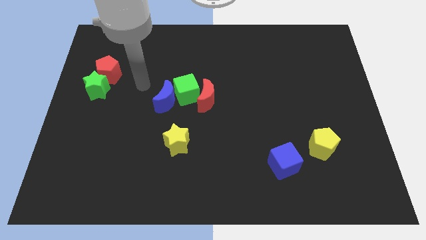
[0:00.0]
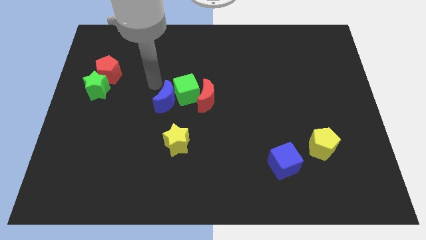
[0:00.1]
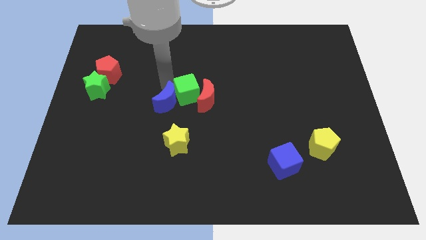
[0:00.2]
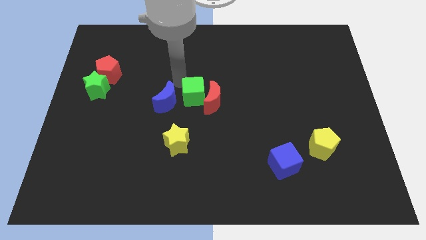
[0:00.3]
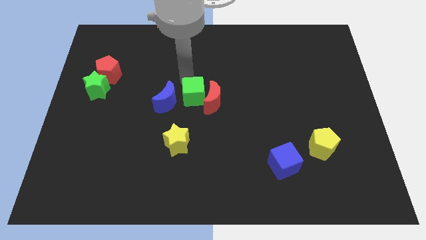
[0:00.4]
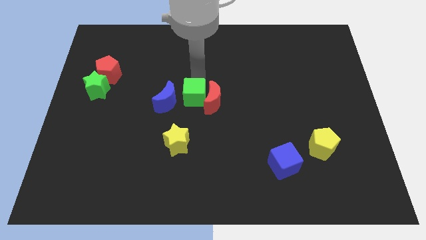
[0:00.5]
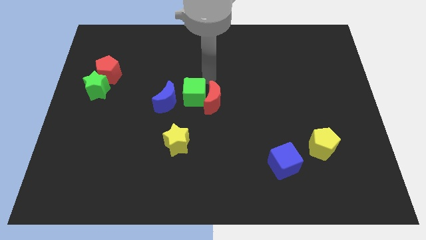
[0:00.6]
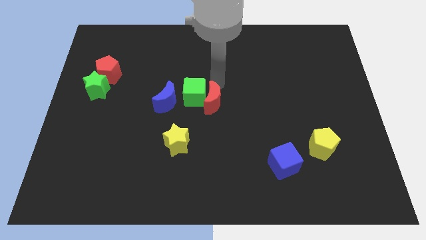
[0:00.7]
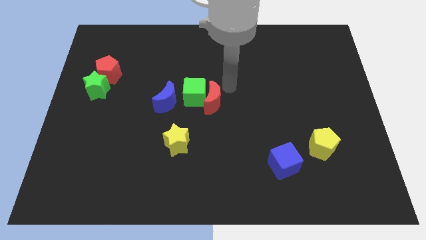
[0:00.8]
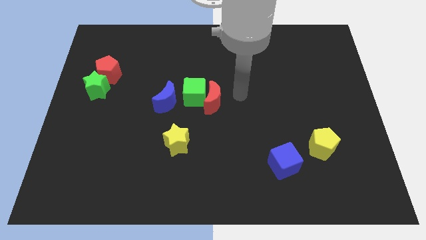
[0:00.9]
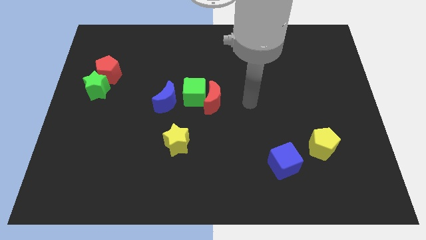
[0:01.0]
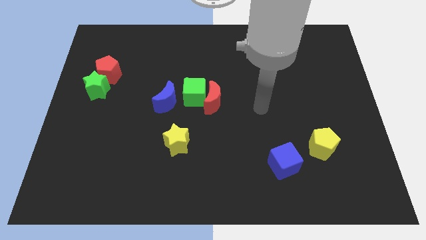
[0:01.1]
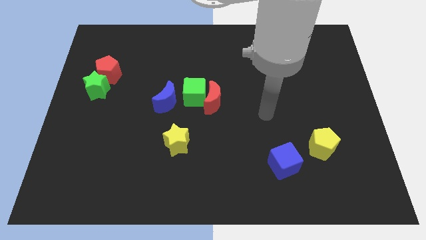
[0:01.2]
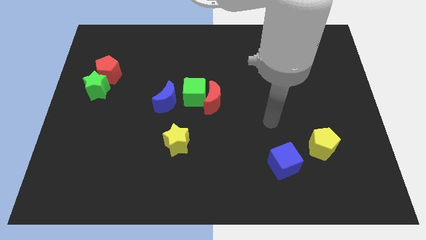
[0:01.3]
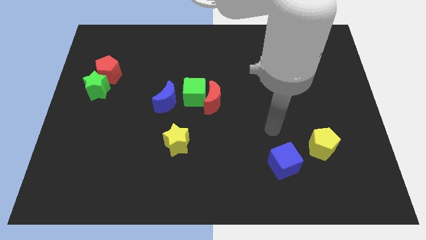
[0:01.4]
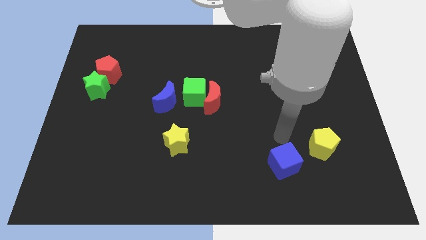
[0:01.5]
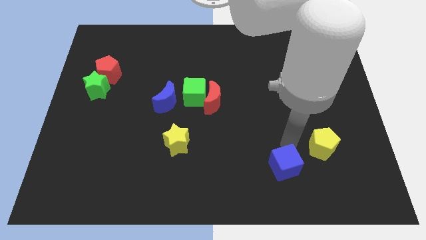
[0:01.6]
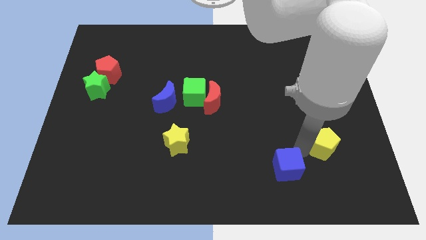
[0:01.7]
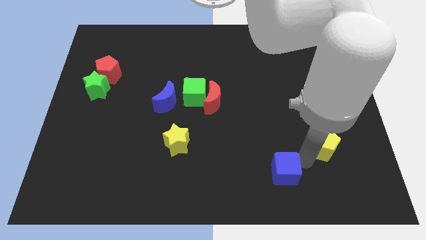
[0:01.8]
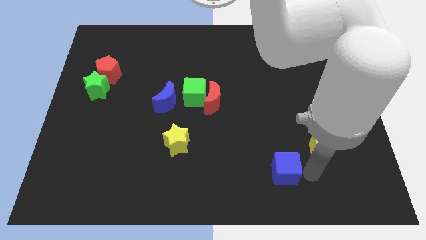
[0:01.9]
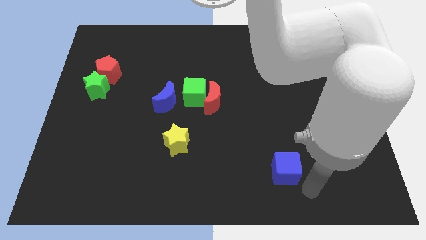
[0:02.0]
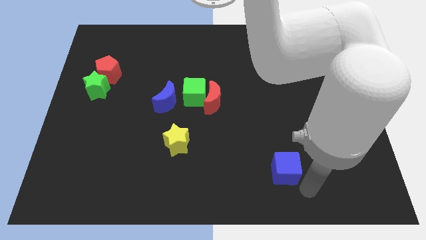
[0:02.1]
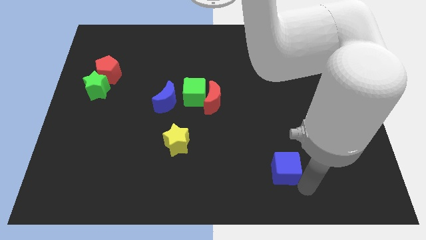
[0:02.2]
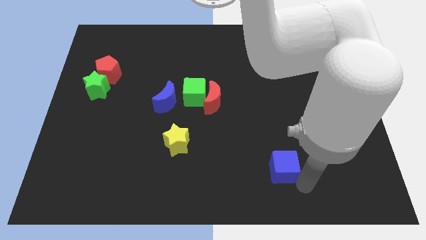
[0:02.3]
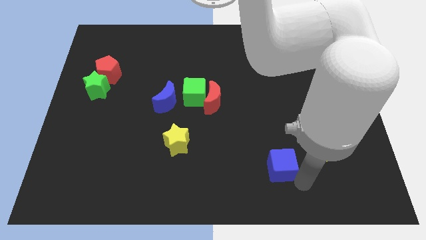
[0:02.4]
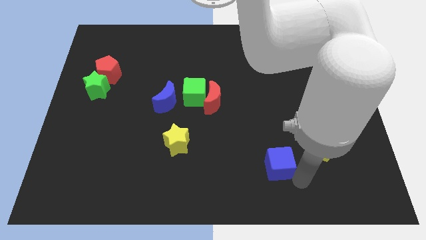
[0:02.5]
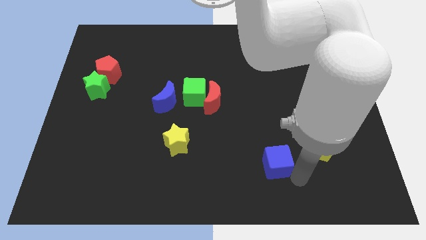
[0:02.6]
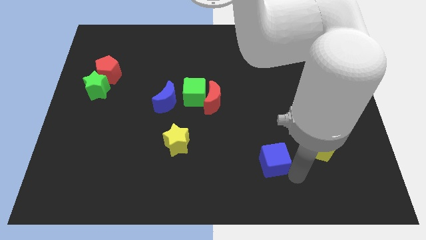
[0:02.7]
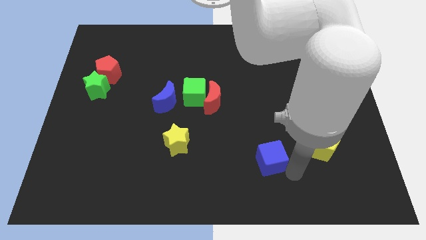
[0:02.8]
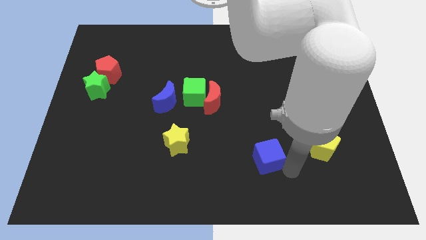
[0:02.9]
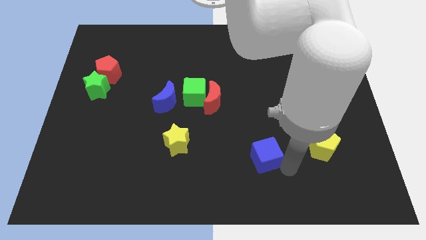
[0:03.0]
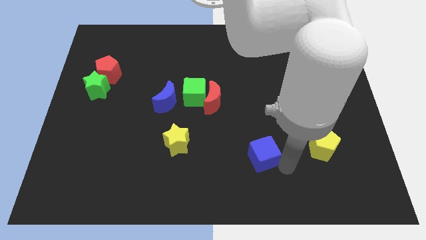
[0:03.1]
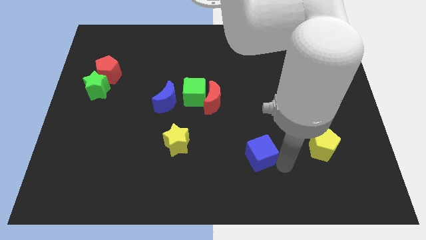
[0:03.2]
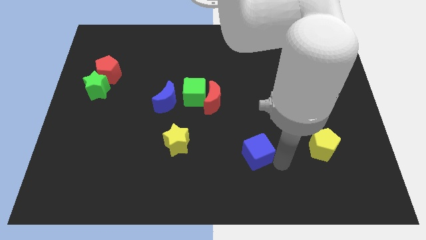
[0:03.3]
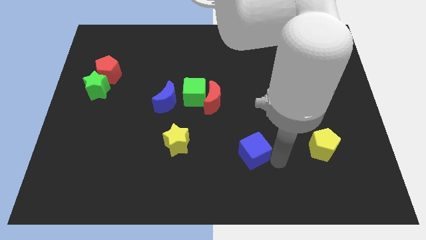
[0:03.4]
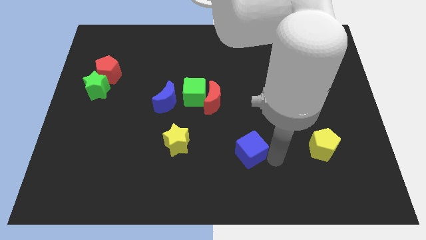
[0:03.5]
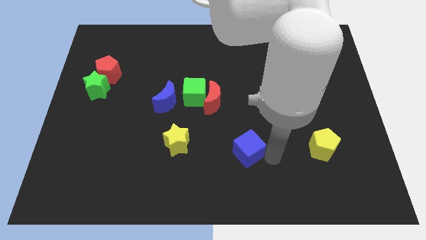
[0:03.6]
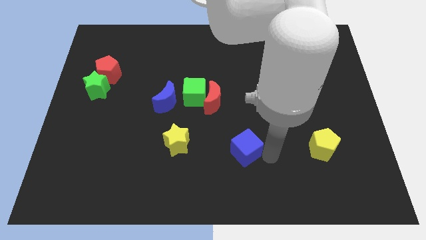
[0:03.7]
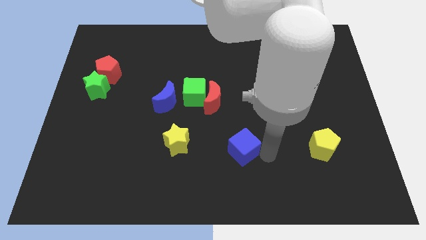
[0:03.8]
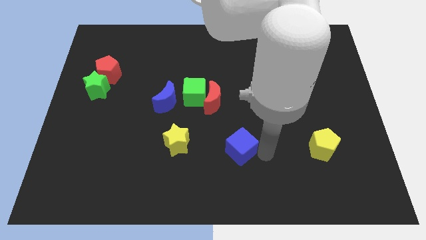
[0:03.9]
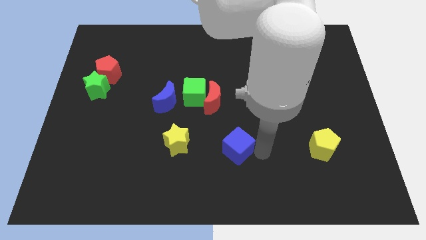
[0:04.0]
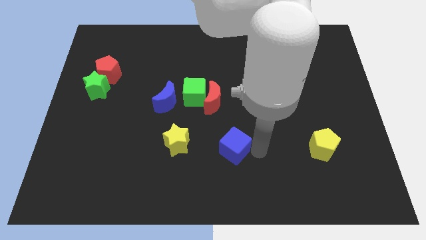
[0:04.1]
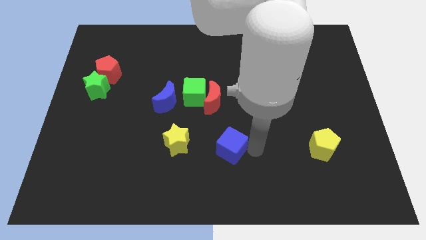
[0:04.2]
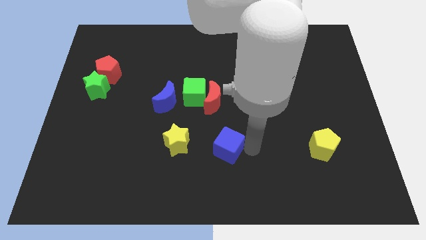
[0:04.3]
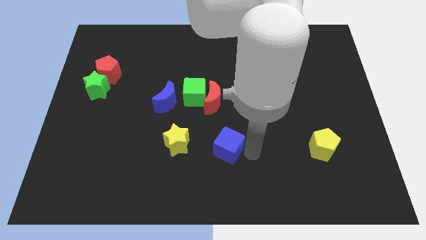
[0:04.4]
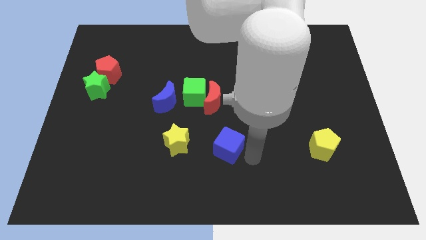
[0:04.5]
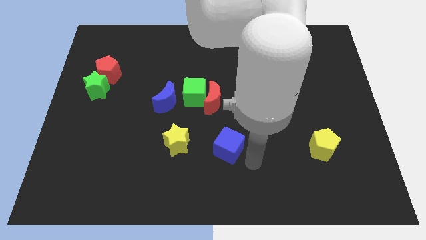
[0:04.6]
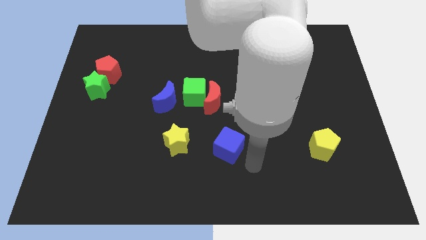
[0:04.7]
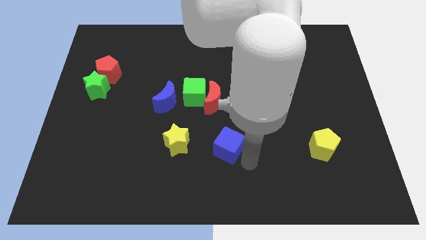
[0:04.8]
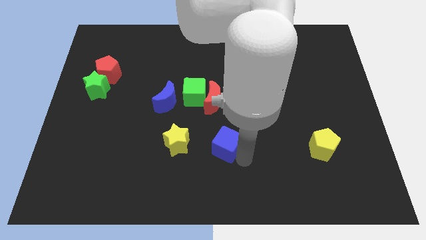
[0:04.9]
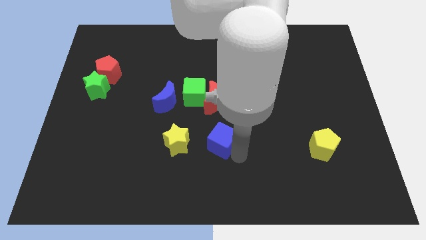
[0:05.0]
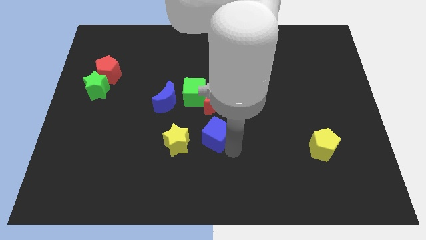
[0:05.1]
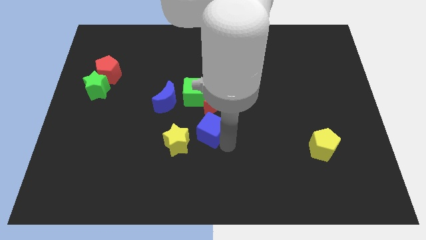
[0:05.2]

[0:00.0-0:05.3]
move the blue cube to the bottom side of the green cube
